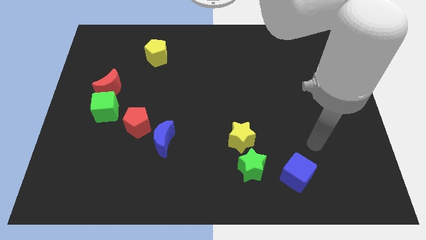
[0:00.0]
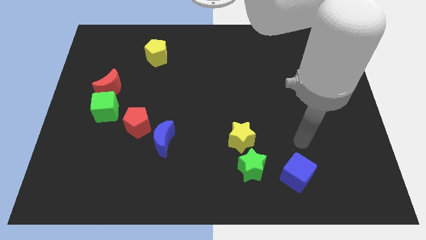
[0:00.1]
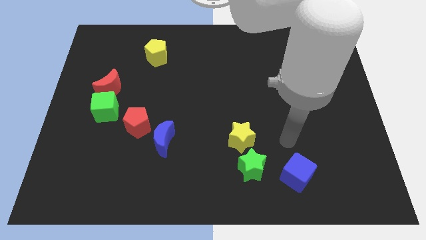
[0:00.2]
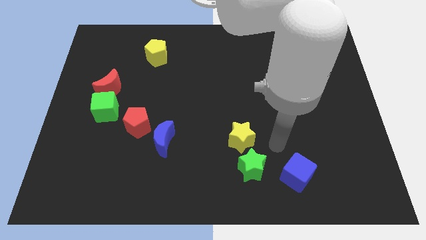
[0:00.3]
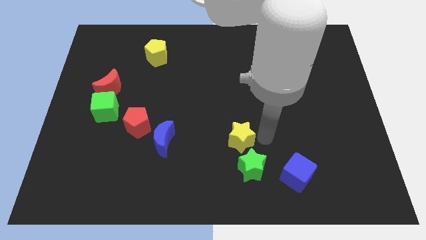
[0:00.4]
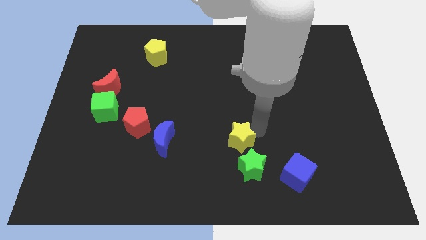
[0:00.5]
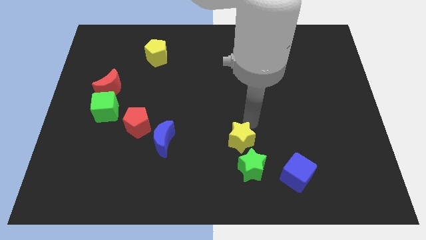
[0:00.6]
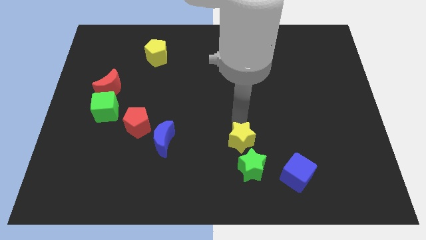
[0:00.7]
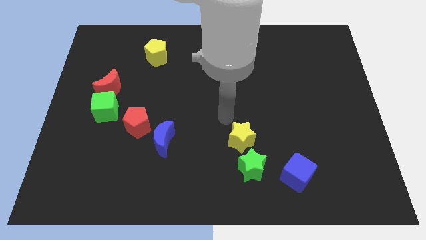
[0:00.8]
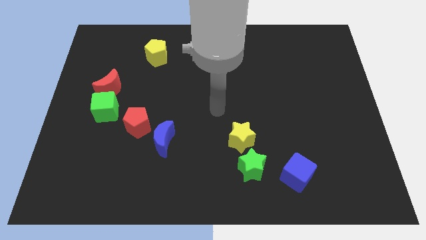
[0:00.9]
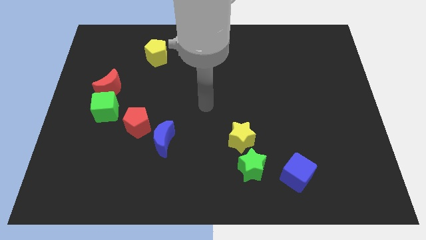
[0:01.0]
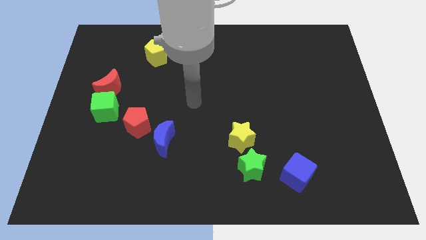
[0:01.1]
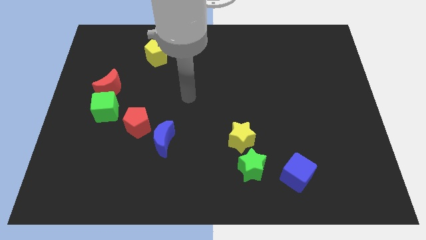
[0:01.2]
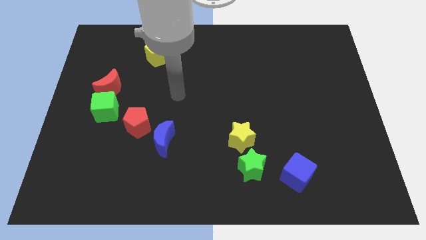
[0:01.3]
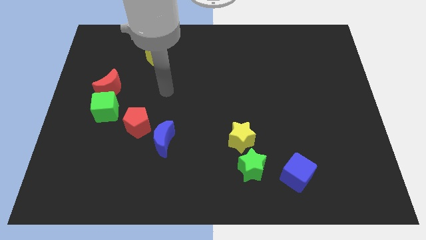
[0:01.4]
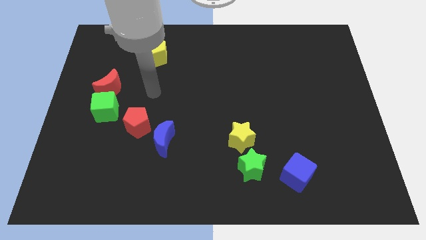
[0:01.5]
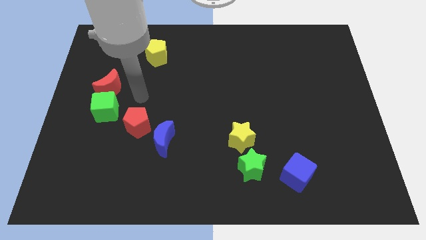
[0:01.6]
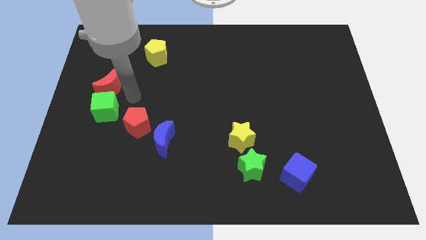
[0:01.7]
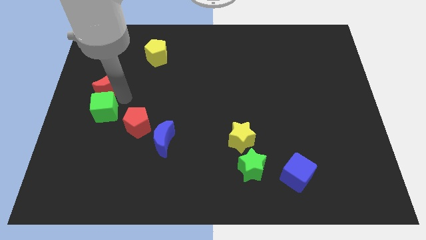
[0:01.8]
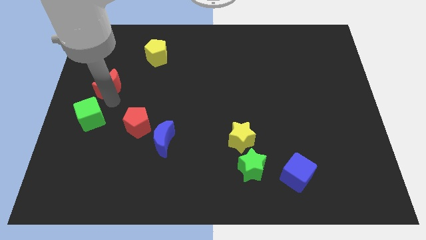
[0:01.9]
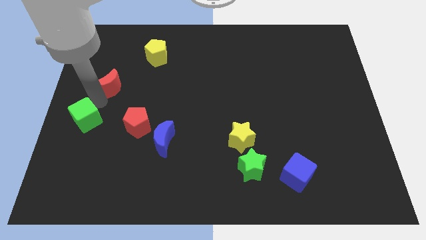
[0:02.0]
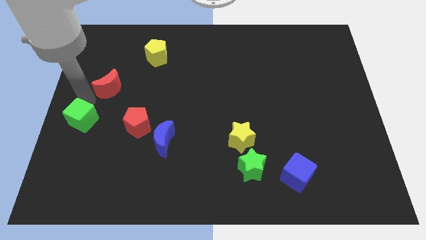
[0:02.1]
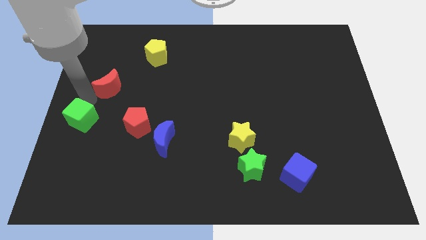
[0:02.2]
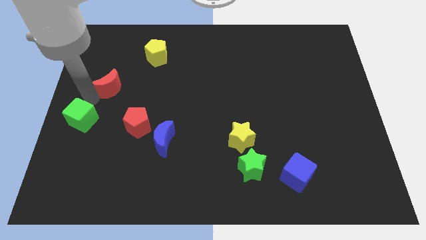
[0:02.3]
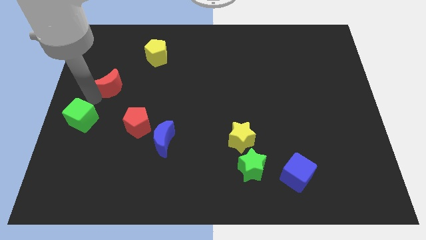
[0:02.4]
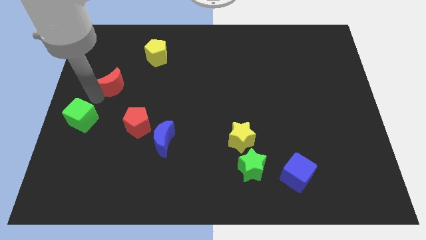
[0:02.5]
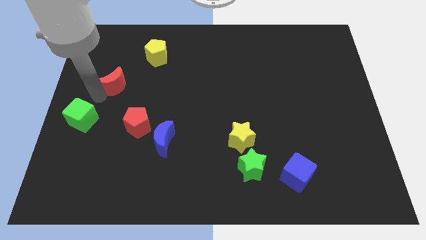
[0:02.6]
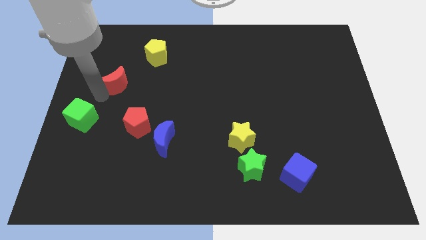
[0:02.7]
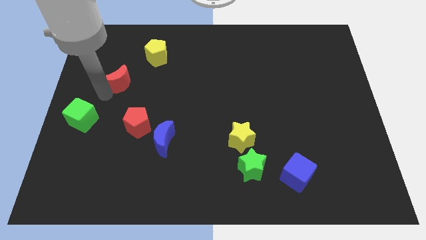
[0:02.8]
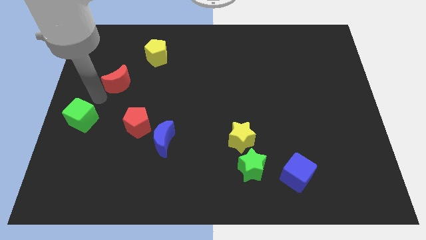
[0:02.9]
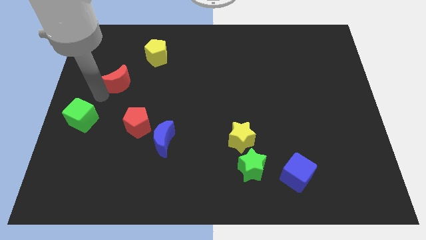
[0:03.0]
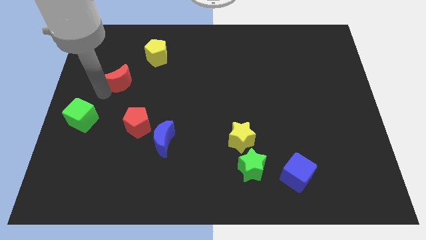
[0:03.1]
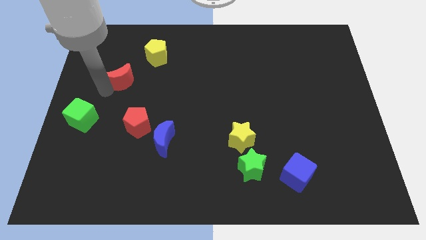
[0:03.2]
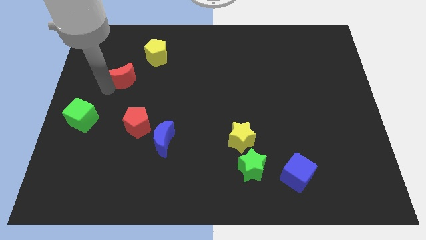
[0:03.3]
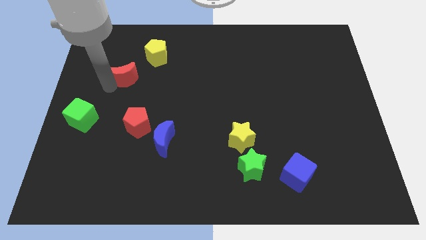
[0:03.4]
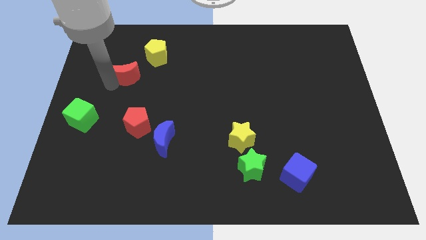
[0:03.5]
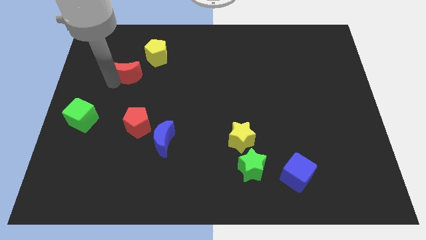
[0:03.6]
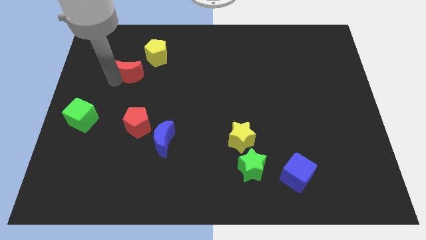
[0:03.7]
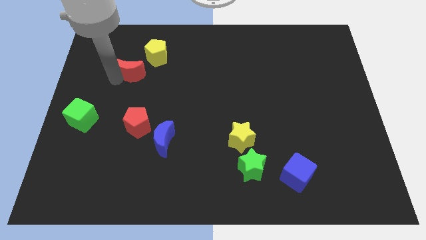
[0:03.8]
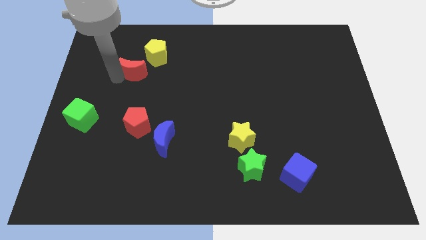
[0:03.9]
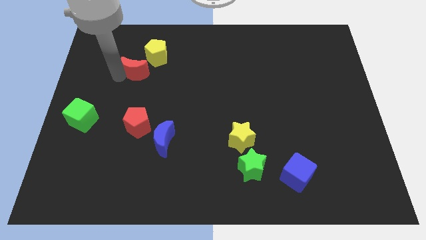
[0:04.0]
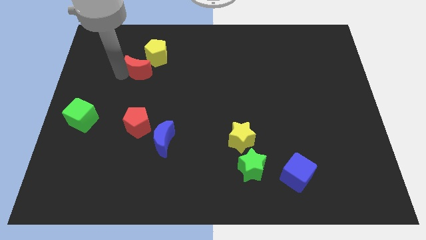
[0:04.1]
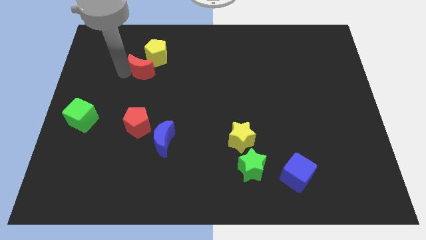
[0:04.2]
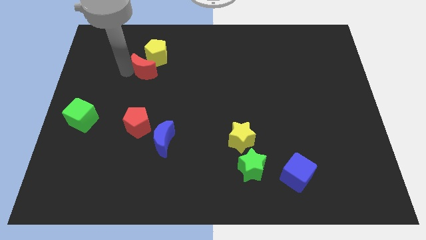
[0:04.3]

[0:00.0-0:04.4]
put the red moon to the yellow pentagon

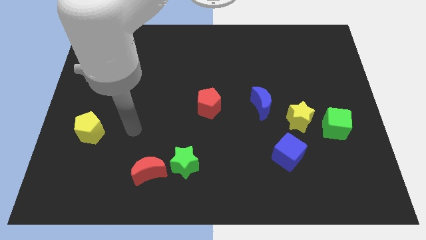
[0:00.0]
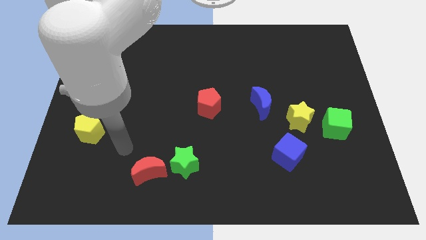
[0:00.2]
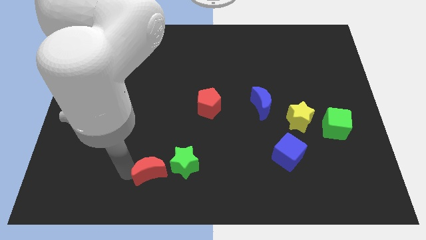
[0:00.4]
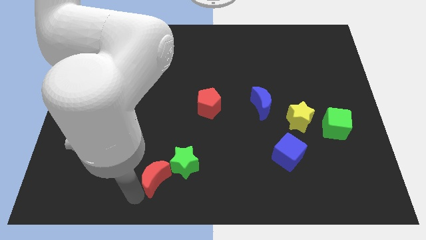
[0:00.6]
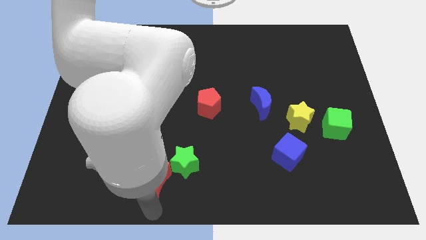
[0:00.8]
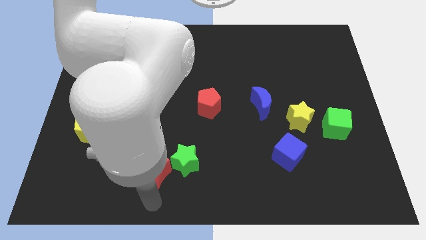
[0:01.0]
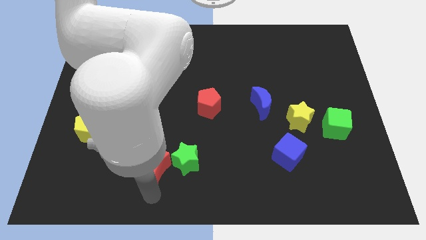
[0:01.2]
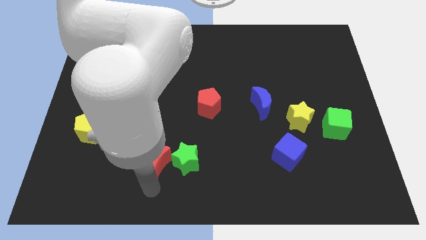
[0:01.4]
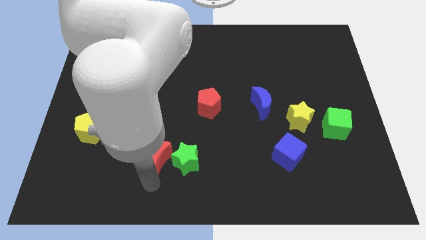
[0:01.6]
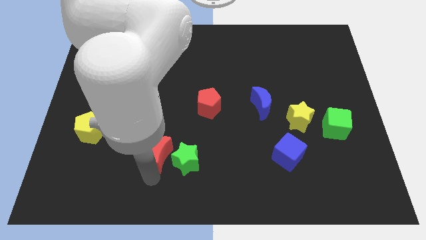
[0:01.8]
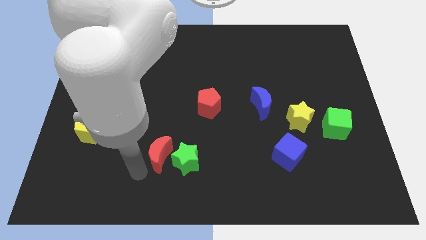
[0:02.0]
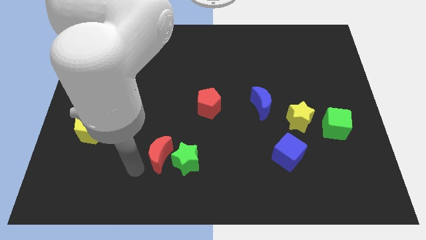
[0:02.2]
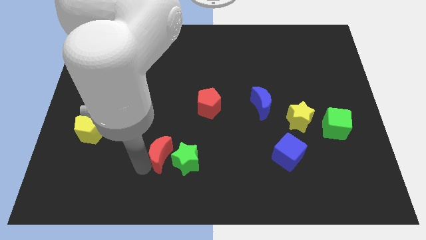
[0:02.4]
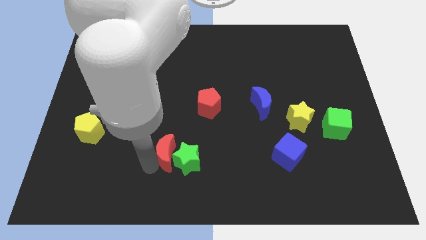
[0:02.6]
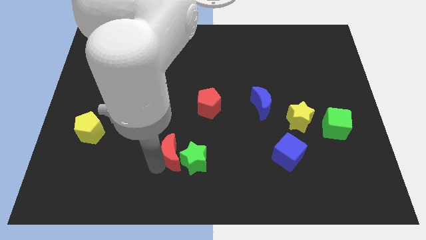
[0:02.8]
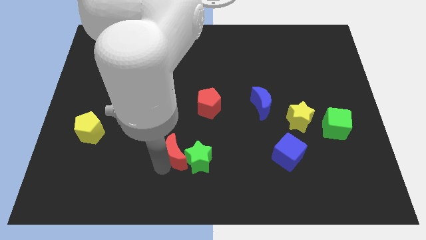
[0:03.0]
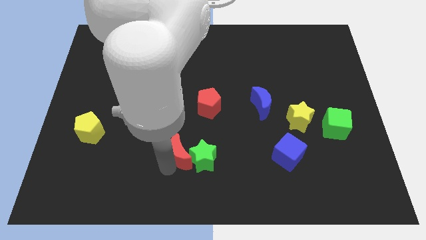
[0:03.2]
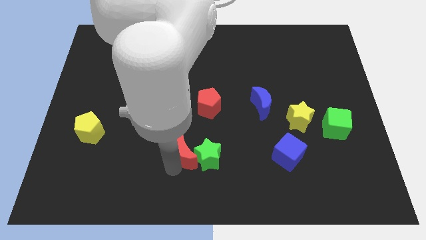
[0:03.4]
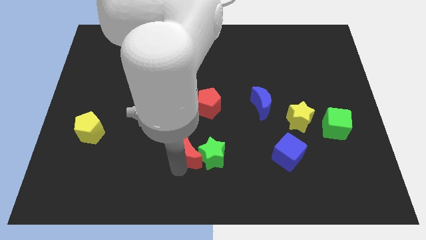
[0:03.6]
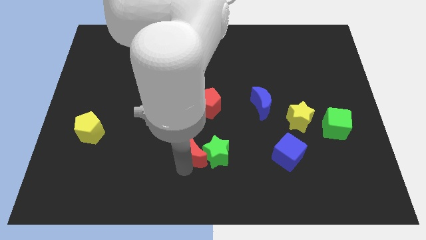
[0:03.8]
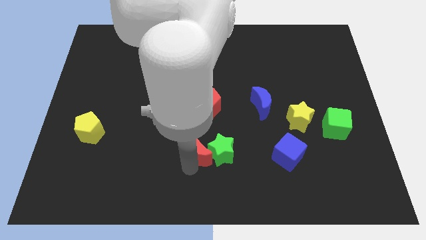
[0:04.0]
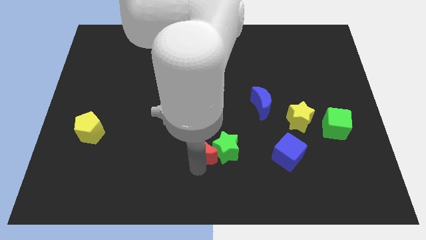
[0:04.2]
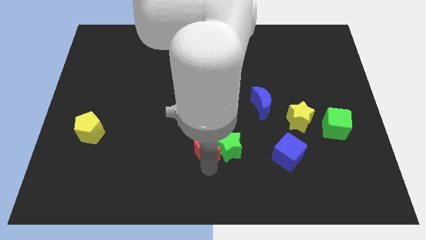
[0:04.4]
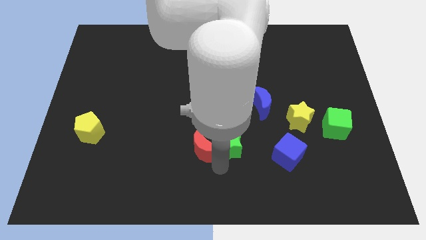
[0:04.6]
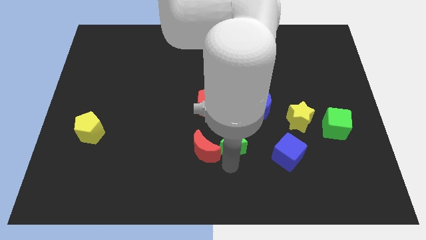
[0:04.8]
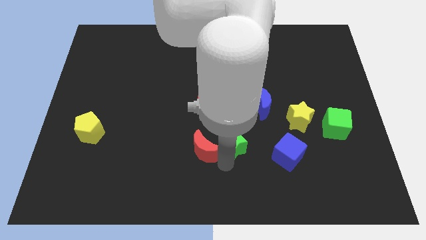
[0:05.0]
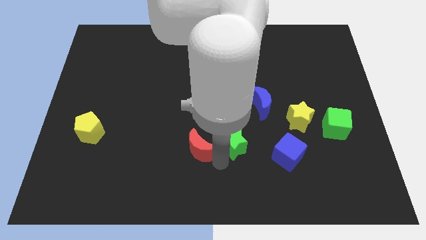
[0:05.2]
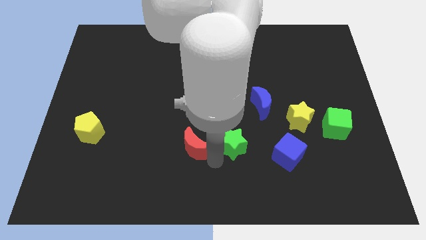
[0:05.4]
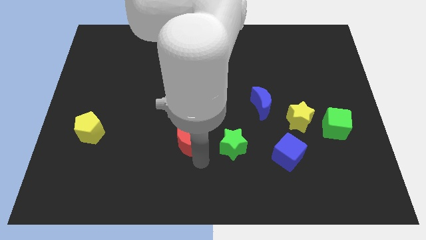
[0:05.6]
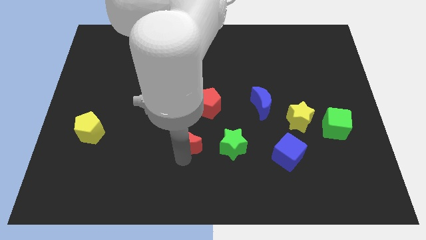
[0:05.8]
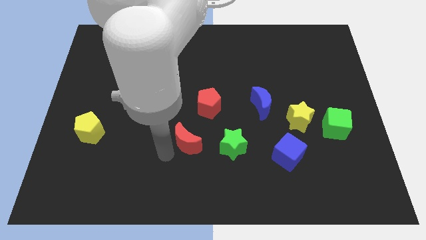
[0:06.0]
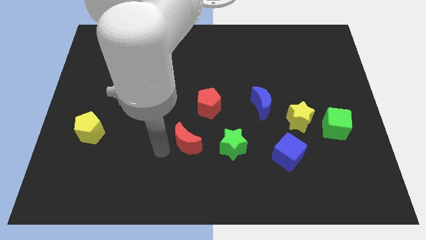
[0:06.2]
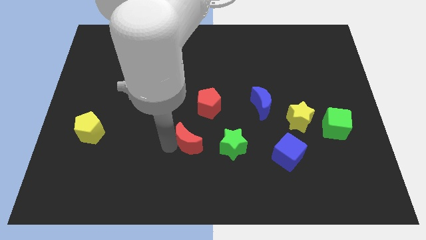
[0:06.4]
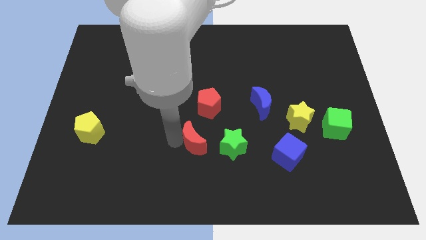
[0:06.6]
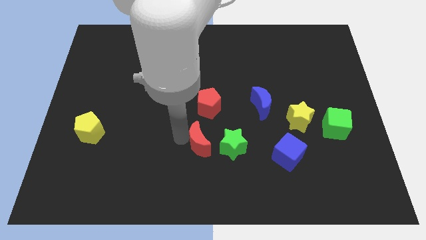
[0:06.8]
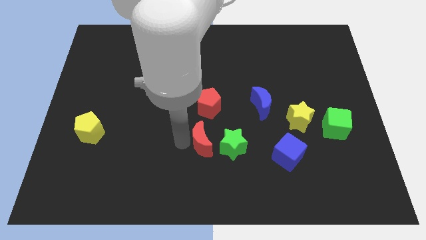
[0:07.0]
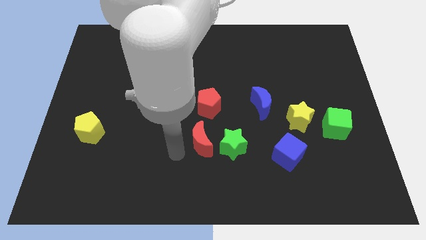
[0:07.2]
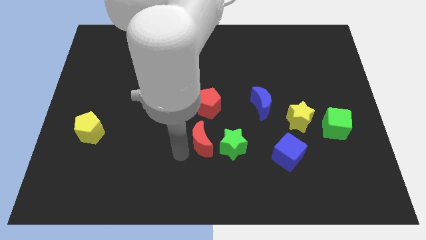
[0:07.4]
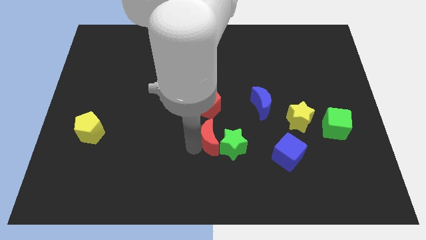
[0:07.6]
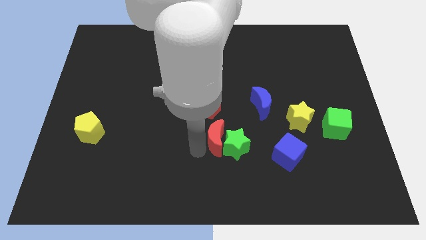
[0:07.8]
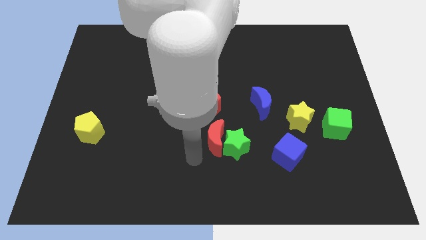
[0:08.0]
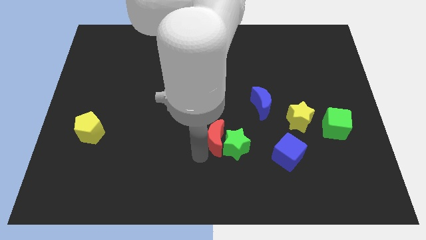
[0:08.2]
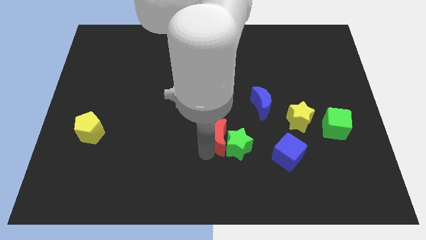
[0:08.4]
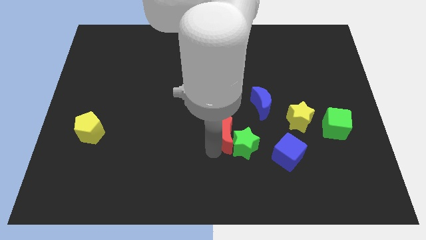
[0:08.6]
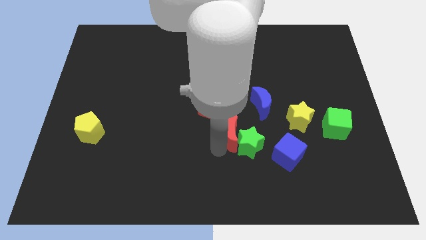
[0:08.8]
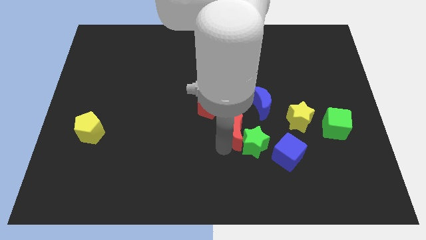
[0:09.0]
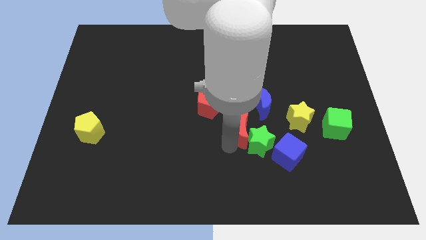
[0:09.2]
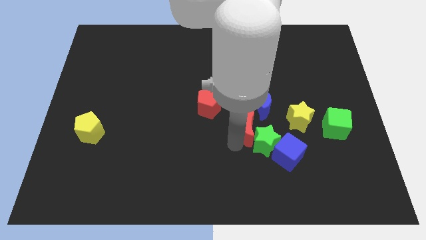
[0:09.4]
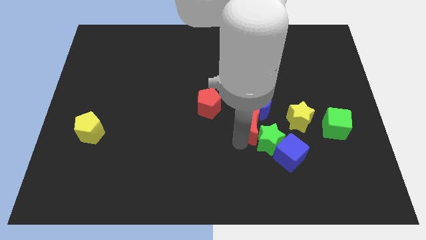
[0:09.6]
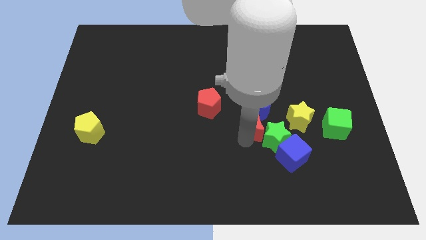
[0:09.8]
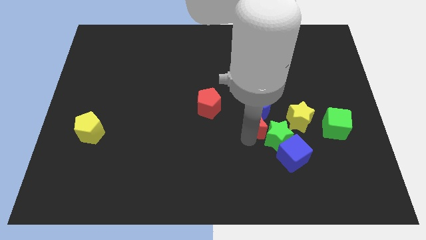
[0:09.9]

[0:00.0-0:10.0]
move the red moon close to the blue moon
